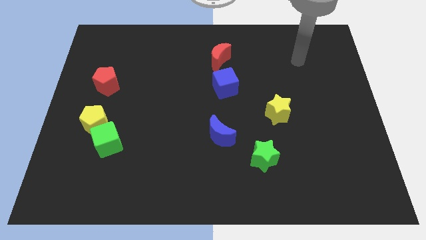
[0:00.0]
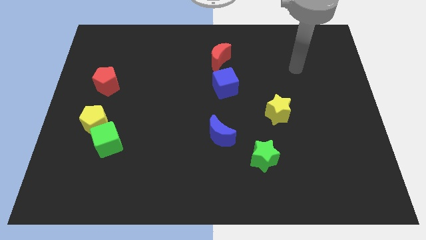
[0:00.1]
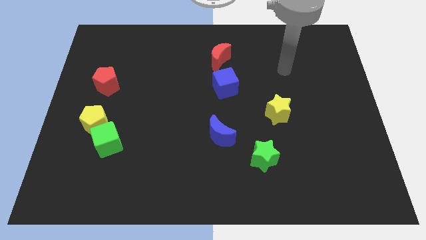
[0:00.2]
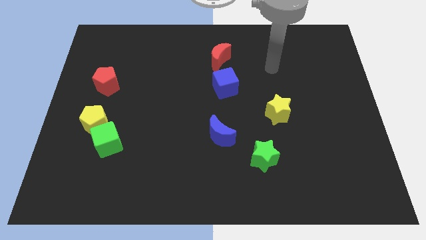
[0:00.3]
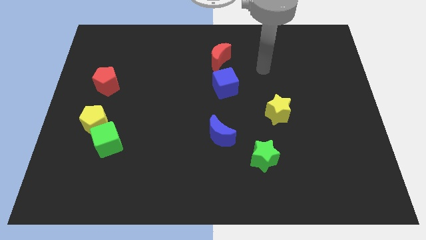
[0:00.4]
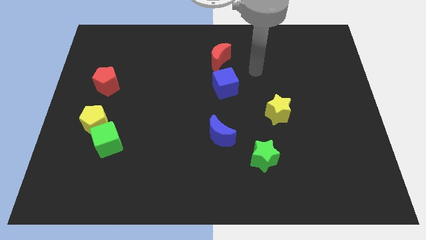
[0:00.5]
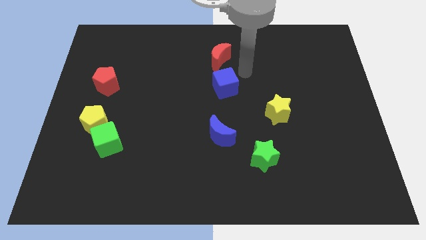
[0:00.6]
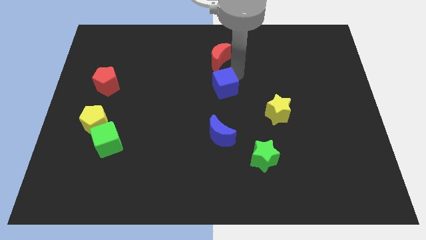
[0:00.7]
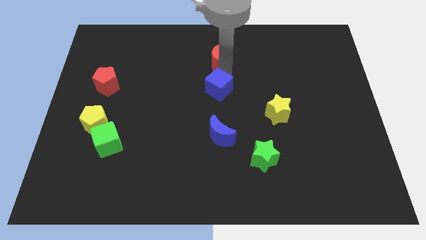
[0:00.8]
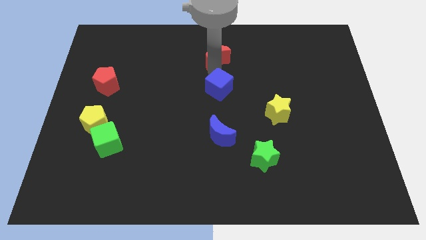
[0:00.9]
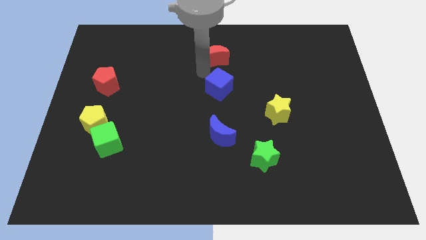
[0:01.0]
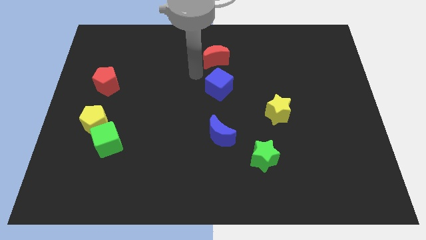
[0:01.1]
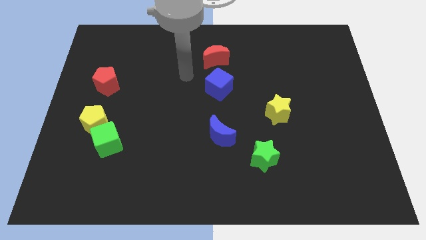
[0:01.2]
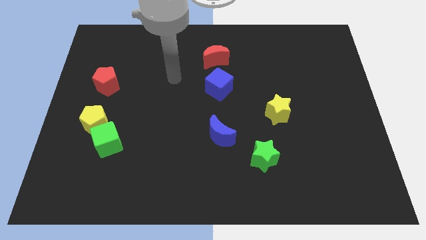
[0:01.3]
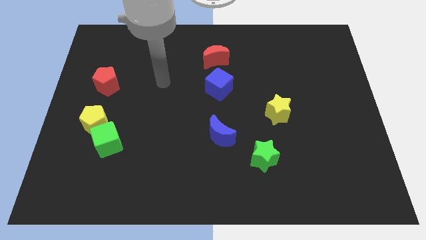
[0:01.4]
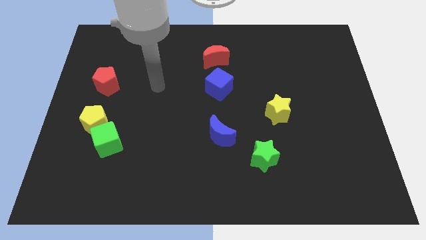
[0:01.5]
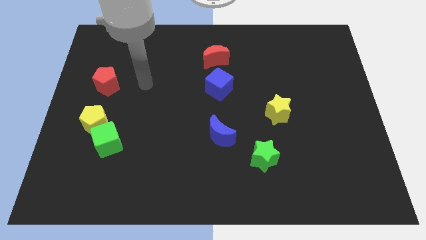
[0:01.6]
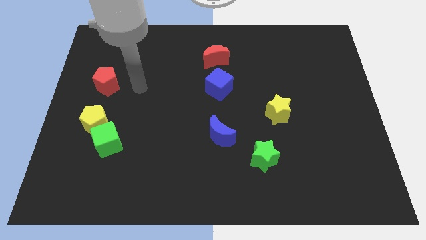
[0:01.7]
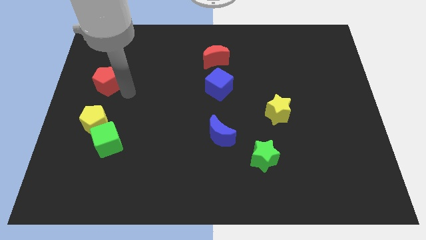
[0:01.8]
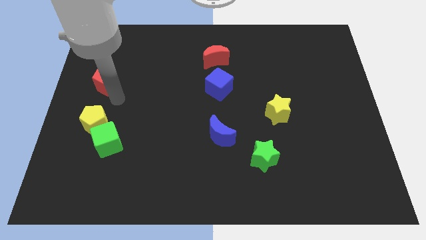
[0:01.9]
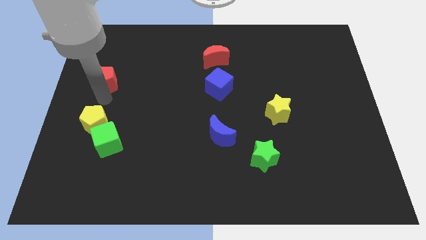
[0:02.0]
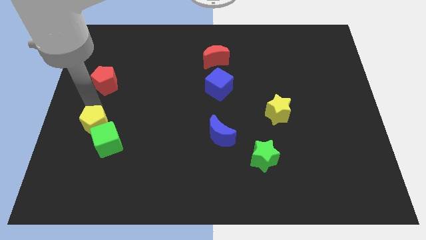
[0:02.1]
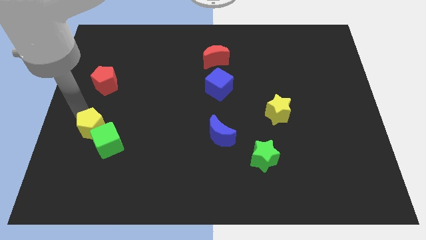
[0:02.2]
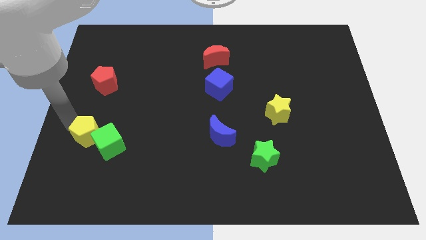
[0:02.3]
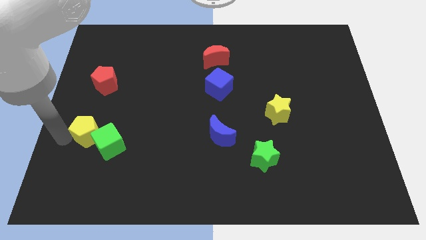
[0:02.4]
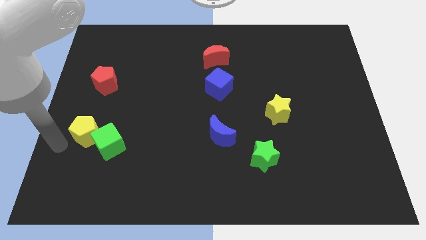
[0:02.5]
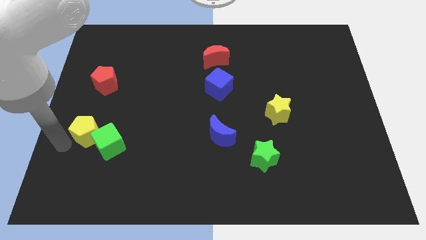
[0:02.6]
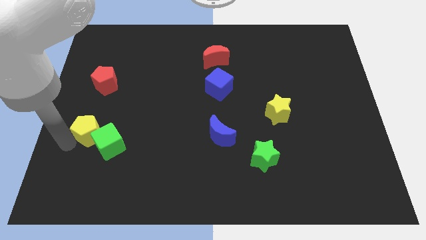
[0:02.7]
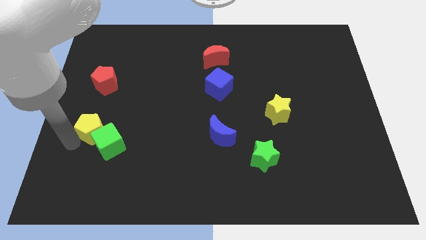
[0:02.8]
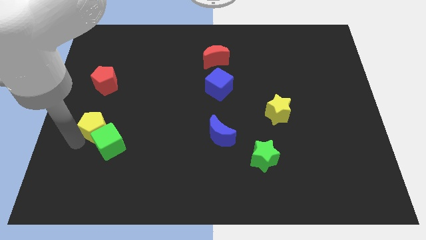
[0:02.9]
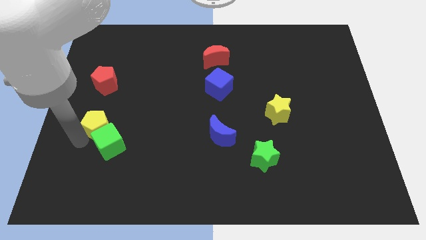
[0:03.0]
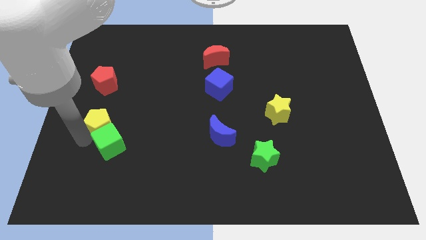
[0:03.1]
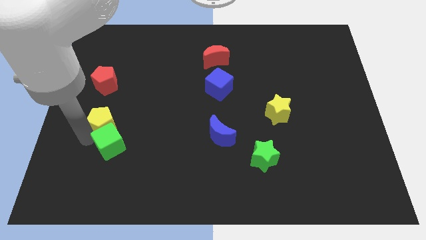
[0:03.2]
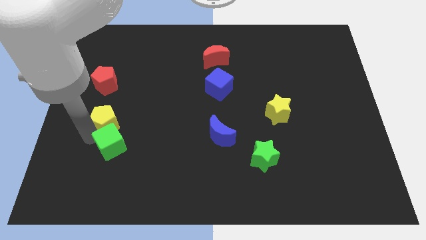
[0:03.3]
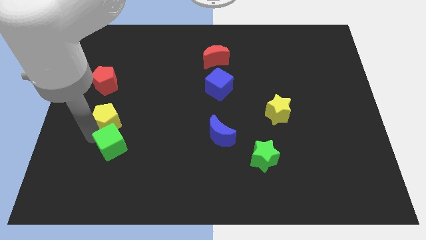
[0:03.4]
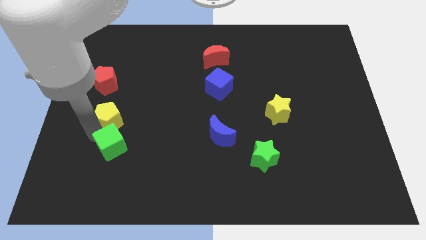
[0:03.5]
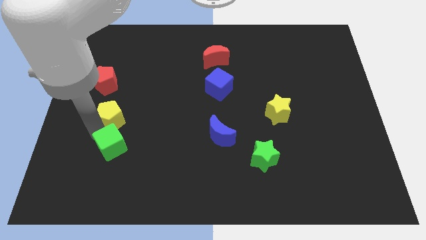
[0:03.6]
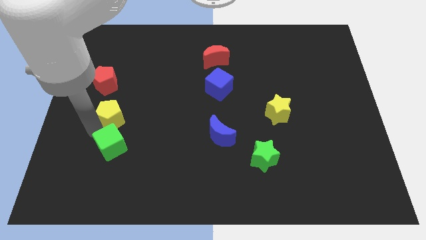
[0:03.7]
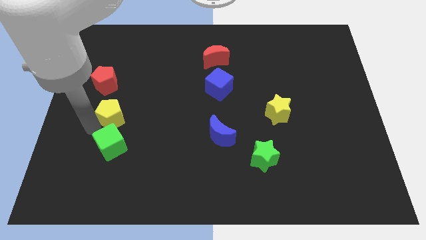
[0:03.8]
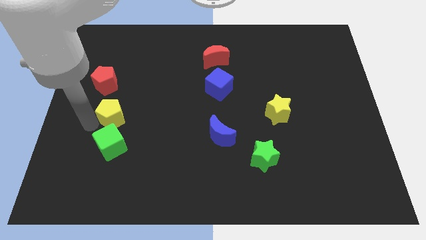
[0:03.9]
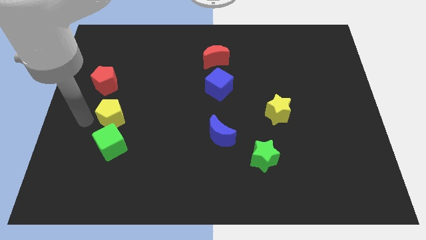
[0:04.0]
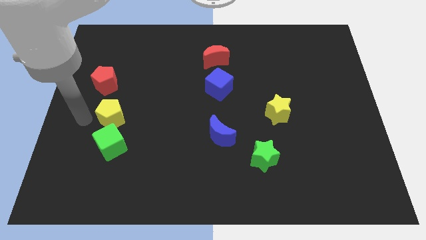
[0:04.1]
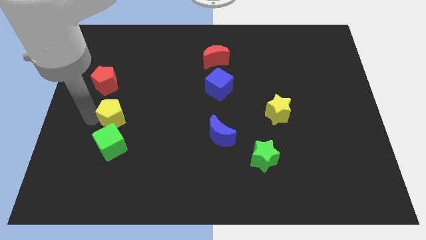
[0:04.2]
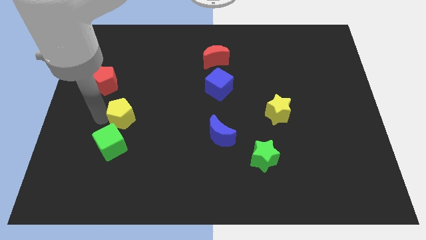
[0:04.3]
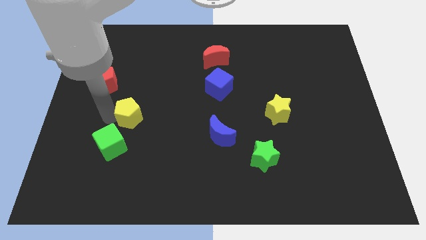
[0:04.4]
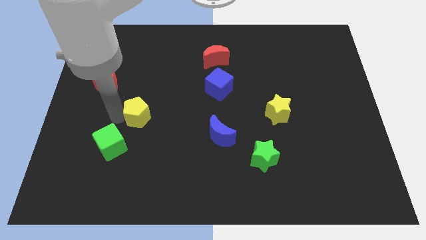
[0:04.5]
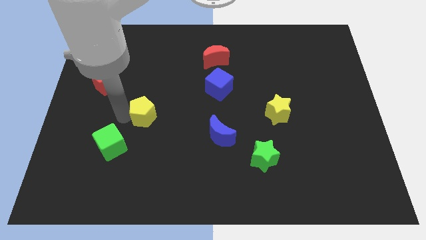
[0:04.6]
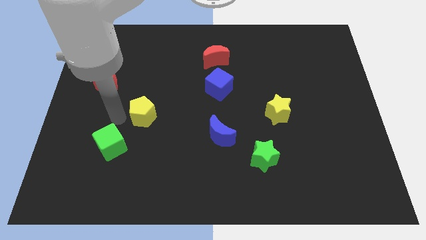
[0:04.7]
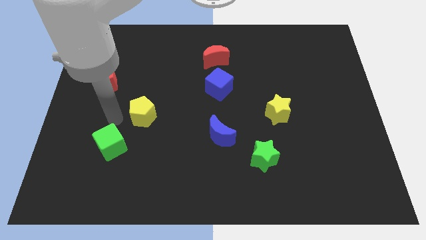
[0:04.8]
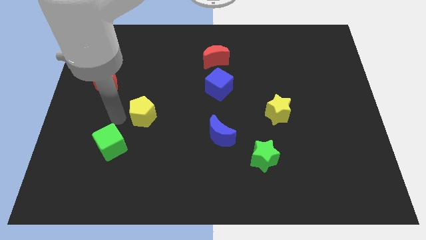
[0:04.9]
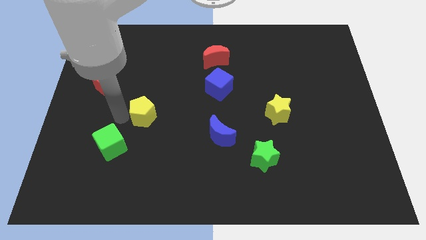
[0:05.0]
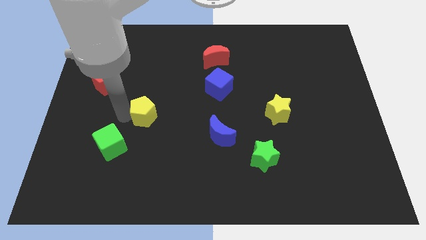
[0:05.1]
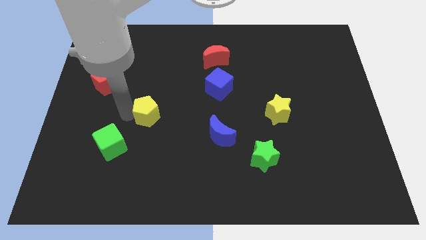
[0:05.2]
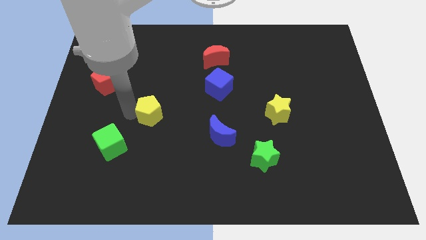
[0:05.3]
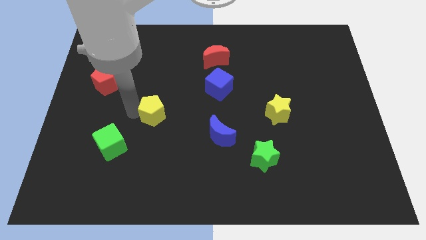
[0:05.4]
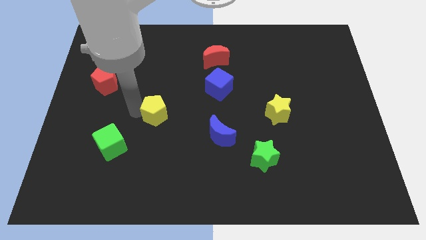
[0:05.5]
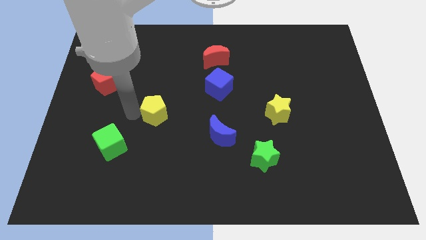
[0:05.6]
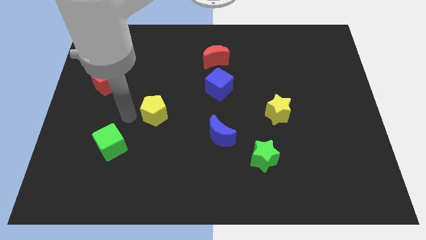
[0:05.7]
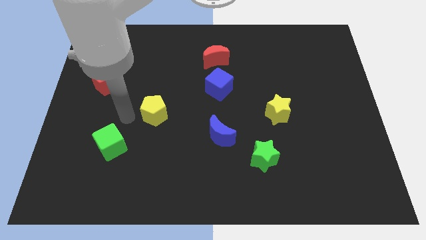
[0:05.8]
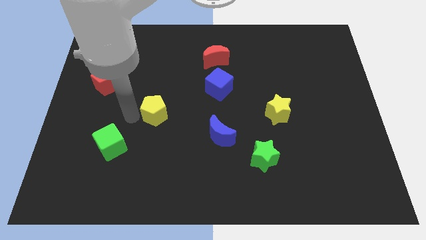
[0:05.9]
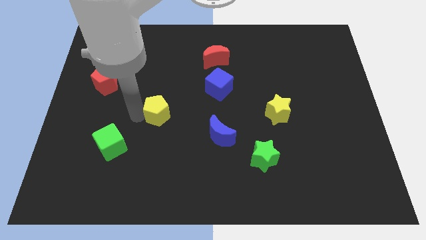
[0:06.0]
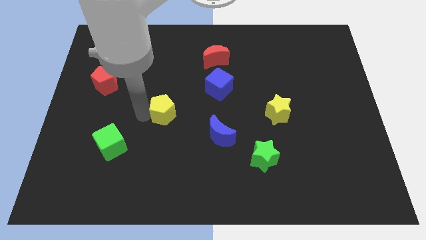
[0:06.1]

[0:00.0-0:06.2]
push the yellow pentagon to the middle of the board

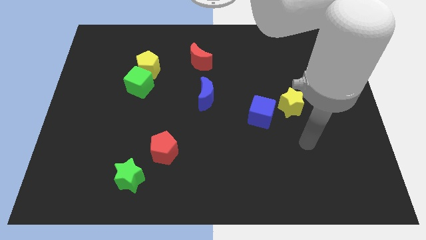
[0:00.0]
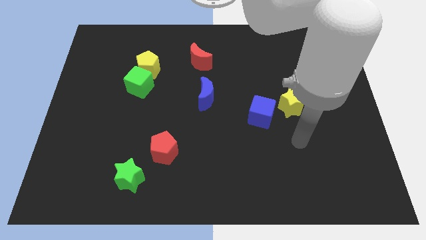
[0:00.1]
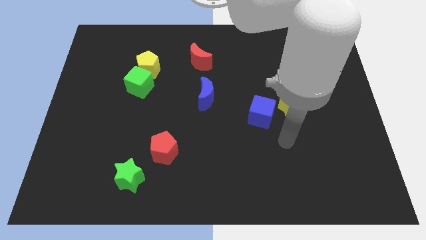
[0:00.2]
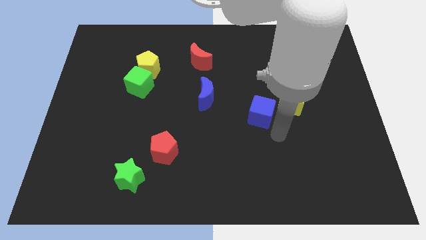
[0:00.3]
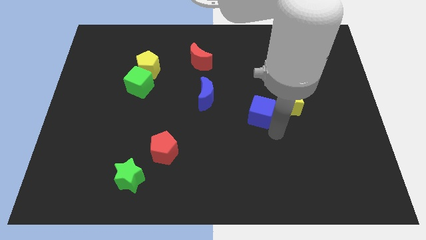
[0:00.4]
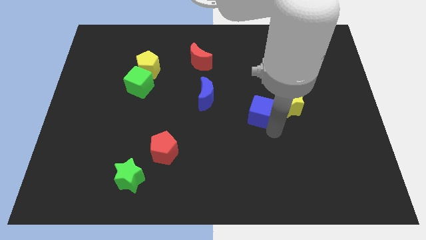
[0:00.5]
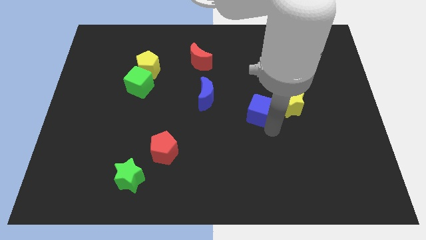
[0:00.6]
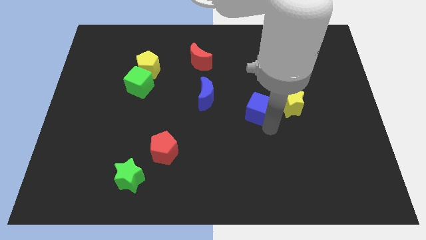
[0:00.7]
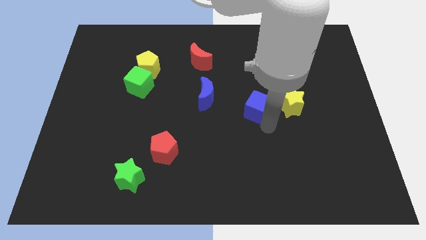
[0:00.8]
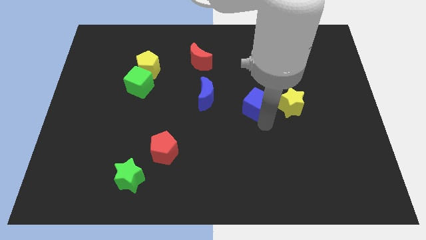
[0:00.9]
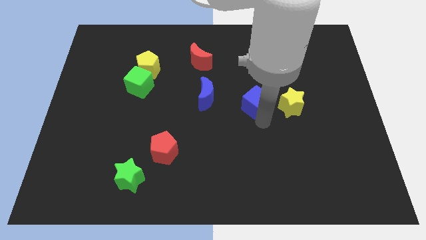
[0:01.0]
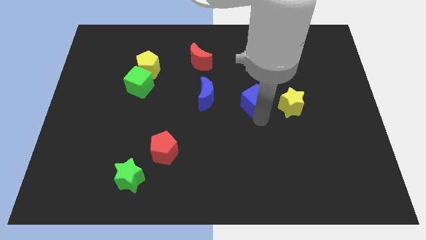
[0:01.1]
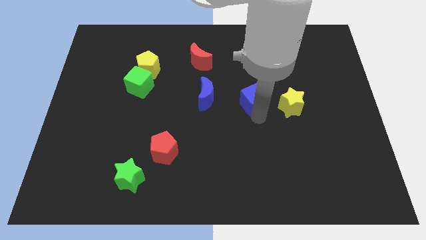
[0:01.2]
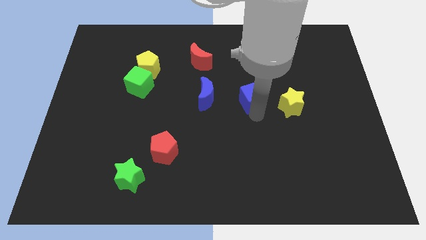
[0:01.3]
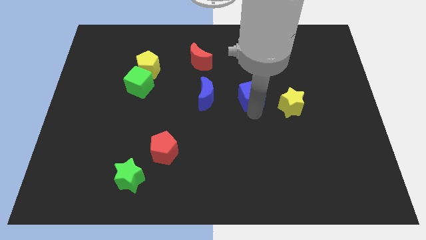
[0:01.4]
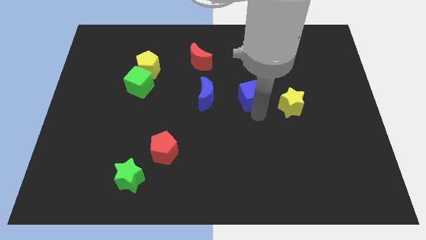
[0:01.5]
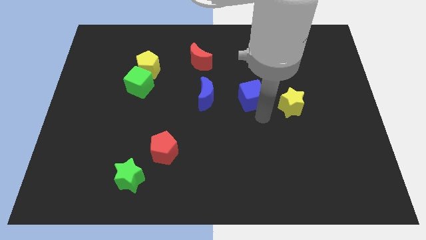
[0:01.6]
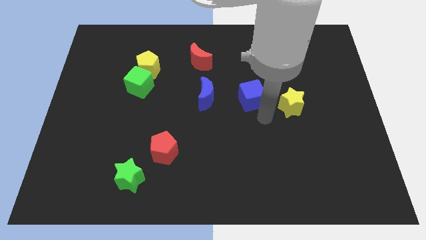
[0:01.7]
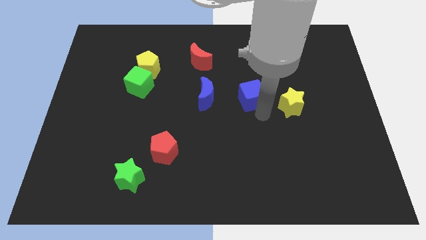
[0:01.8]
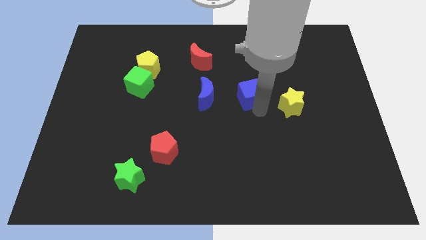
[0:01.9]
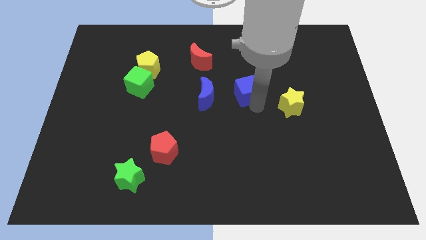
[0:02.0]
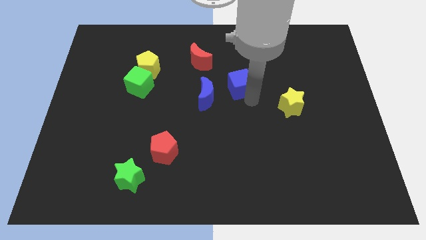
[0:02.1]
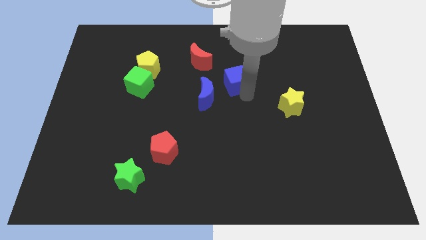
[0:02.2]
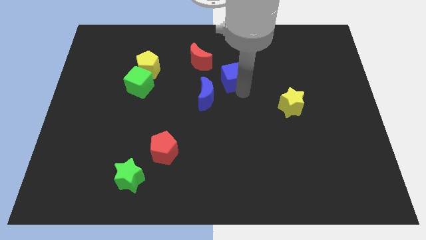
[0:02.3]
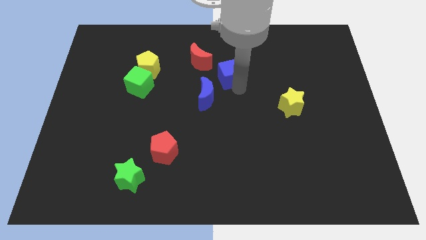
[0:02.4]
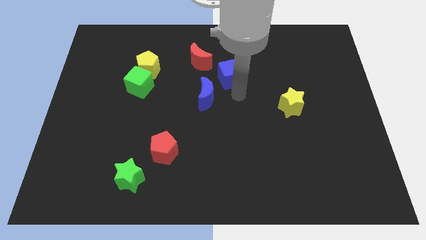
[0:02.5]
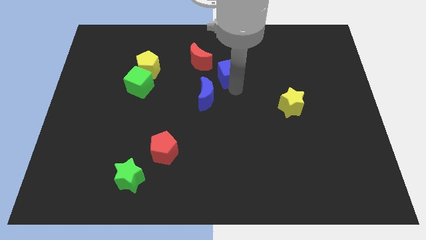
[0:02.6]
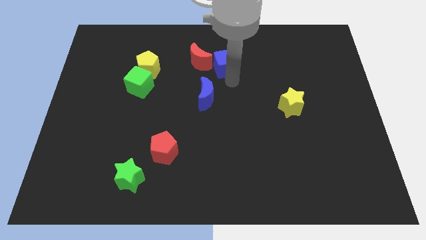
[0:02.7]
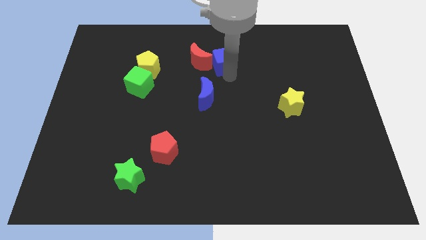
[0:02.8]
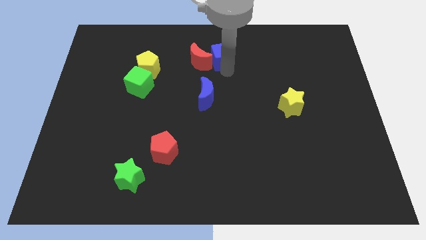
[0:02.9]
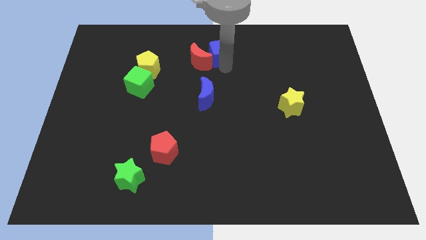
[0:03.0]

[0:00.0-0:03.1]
put the blue cube to the top
